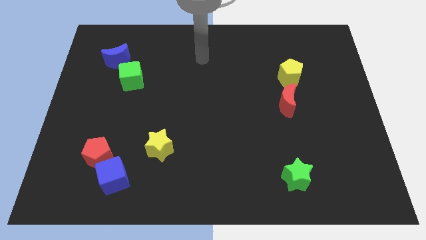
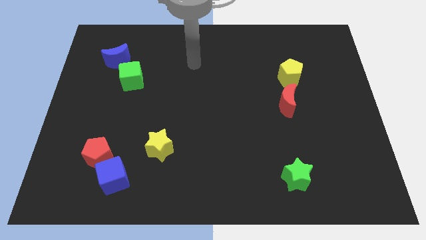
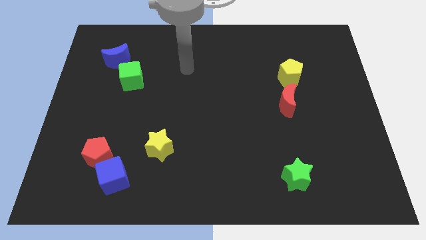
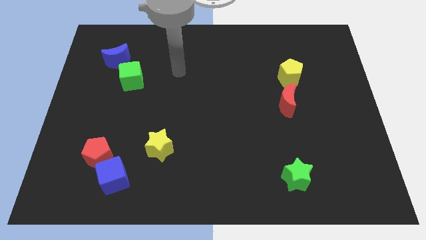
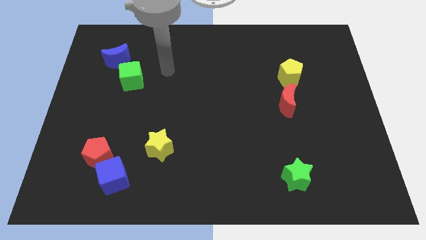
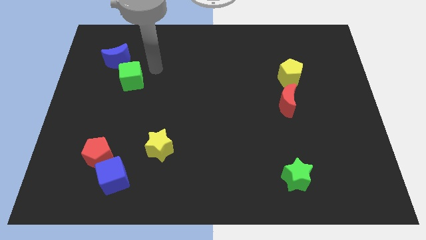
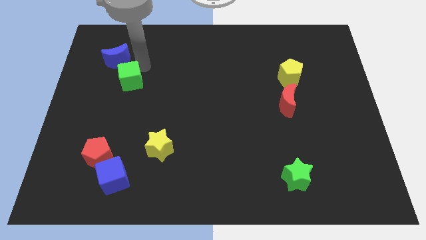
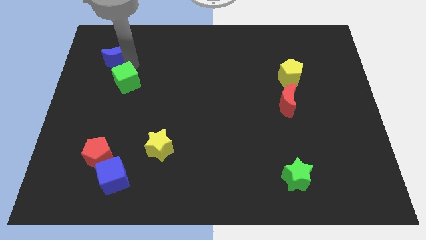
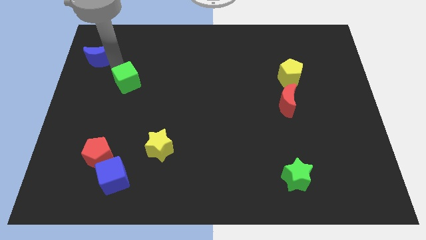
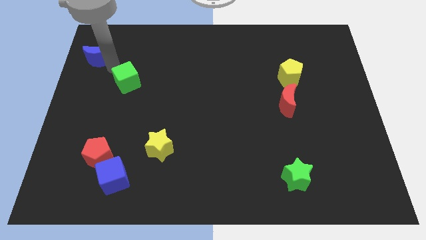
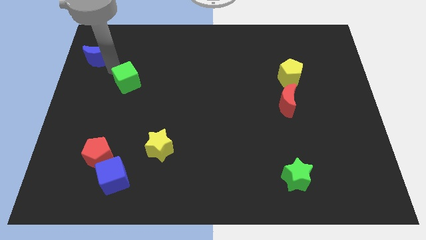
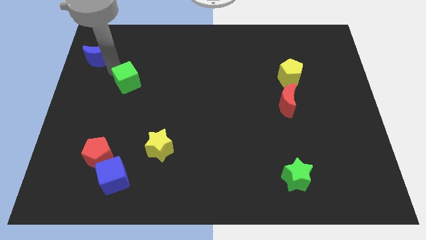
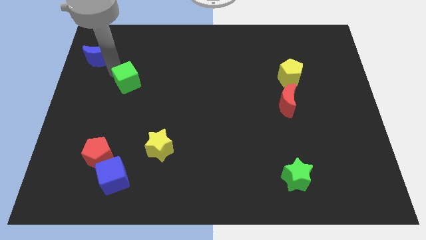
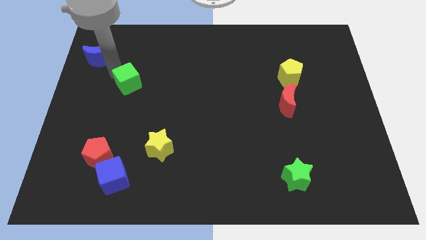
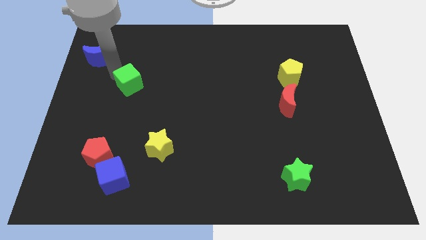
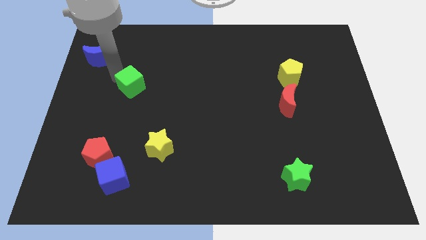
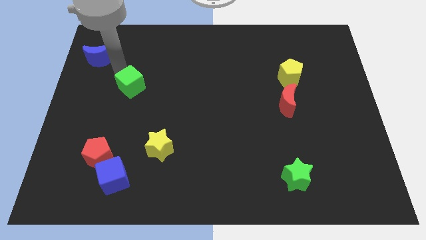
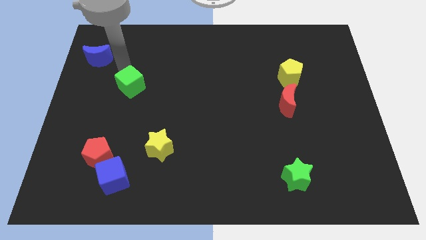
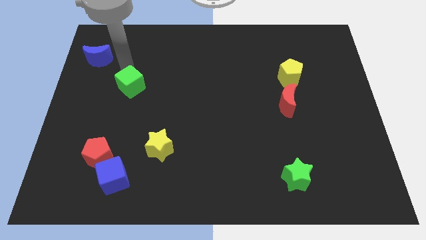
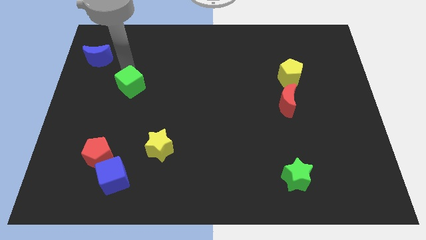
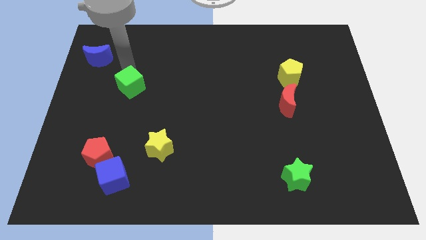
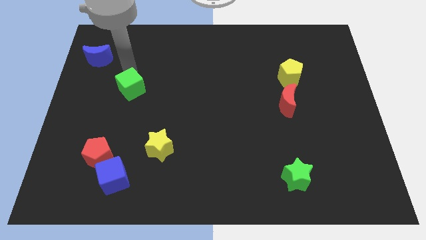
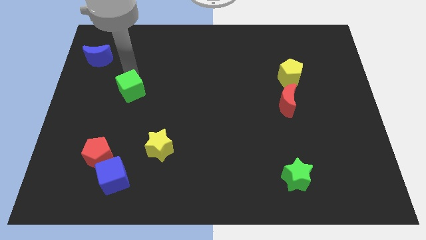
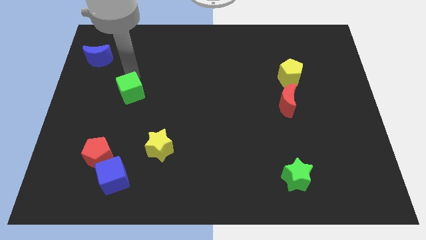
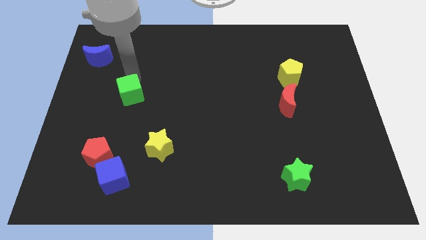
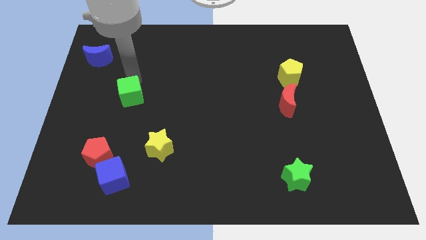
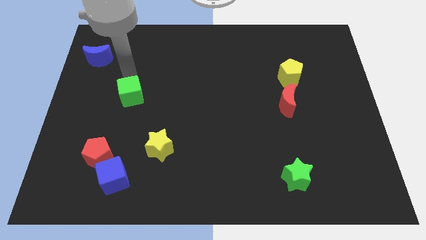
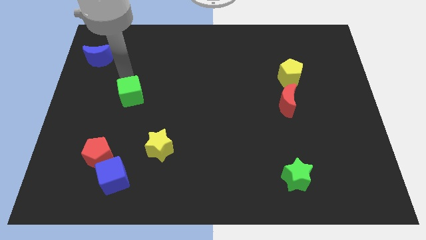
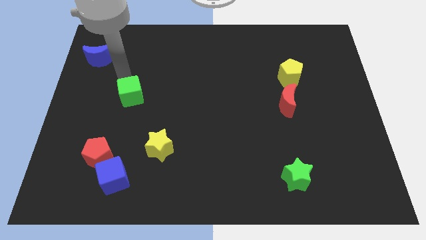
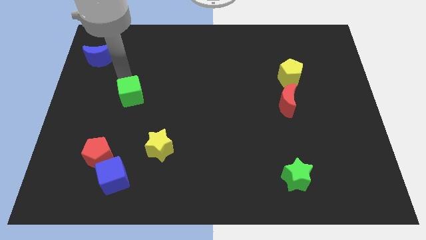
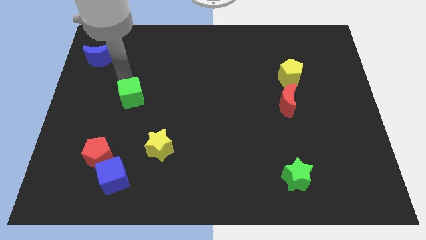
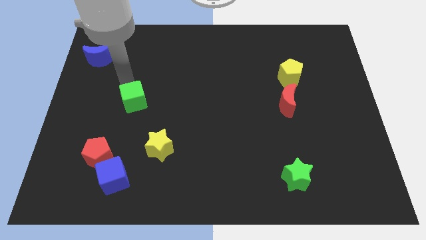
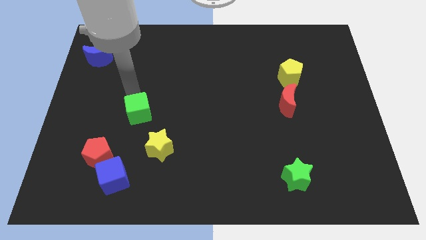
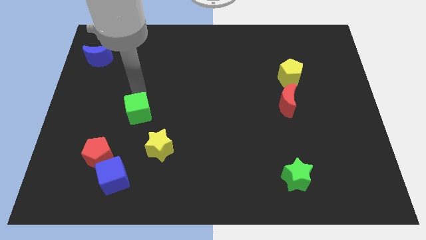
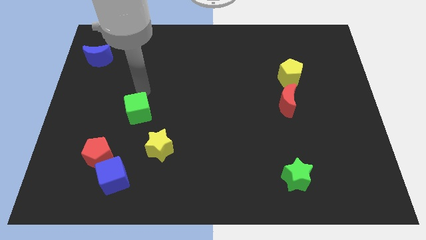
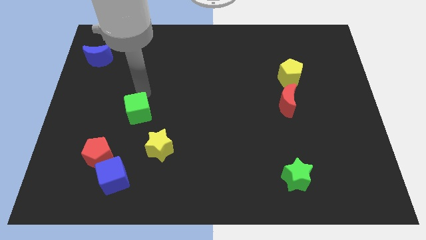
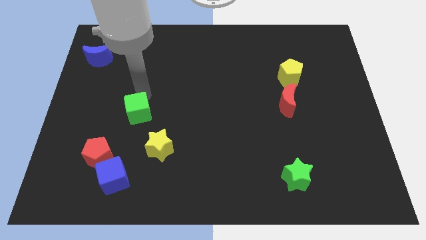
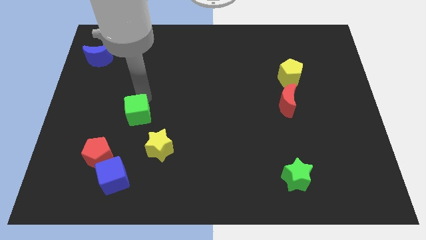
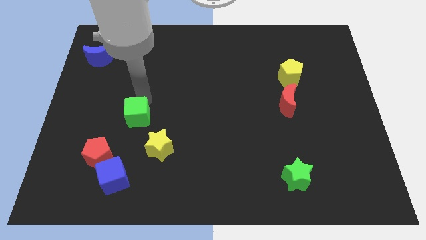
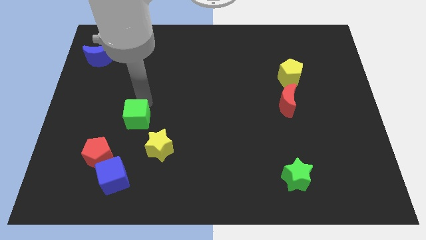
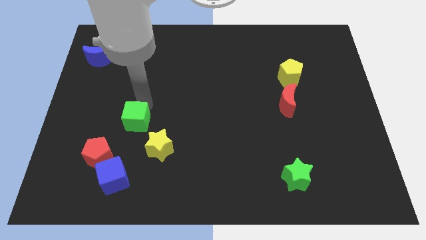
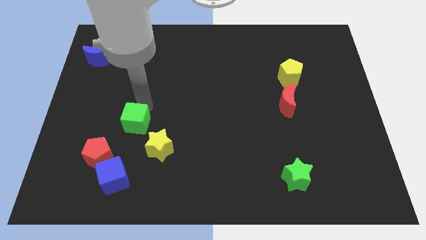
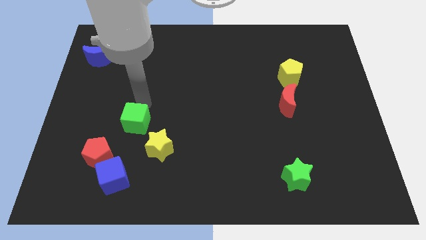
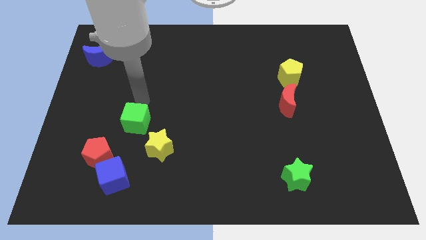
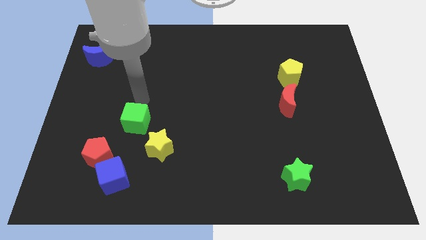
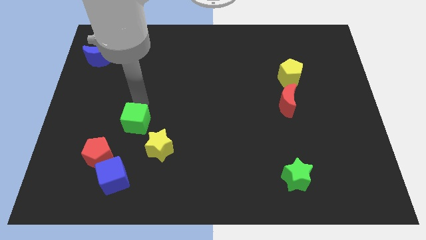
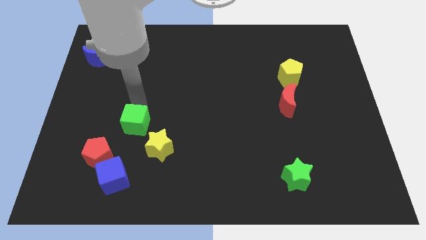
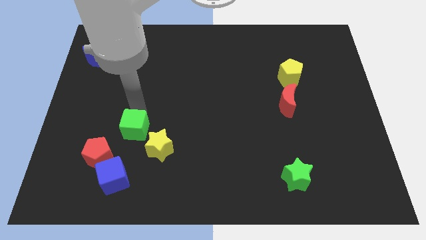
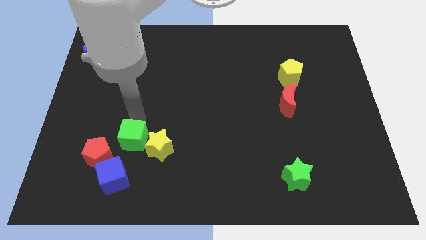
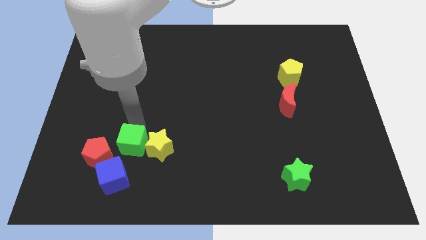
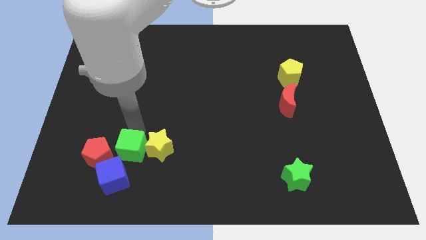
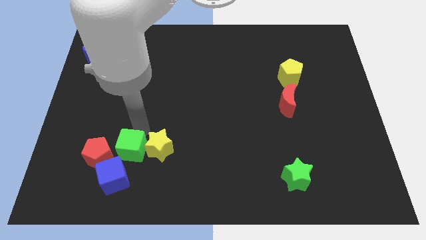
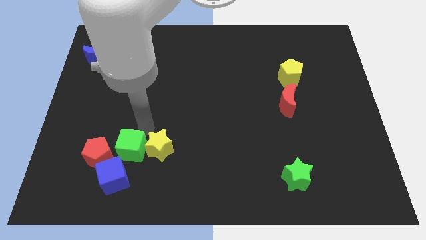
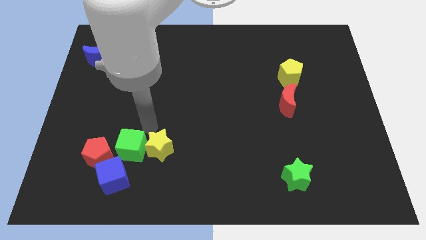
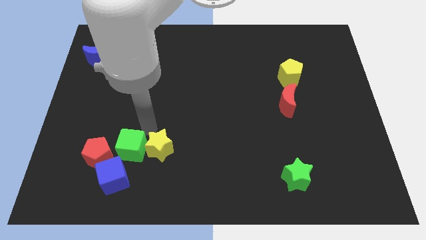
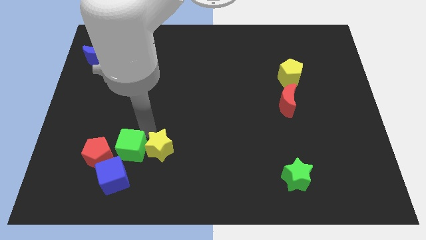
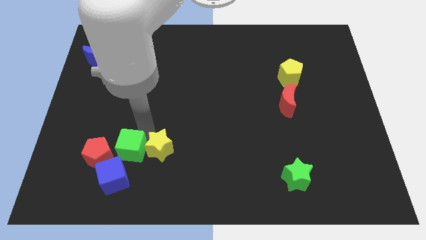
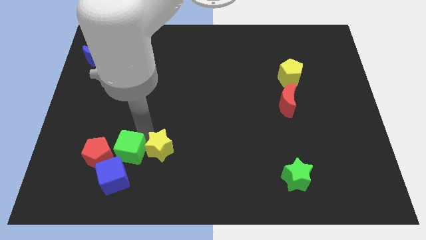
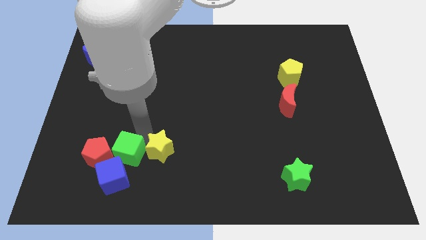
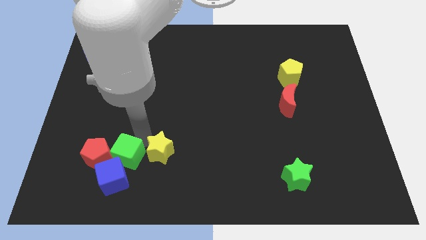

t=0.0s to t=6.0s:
slide the green cube close to the blue cube

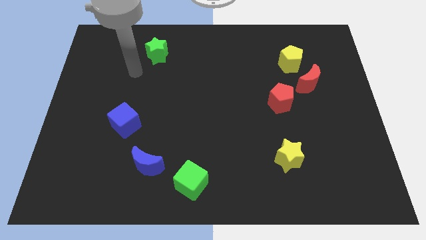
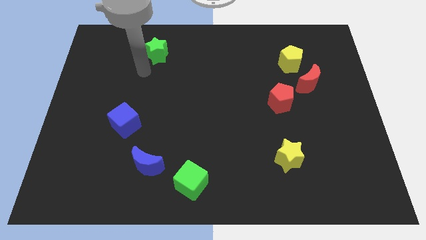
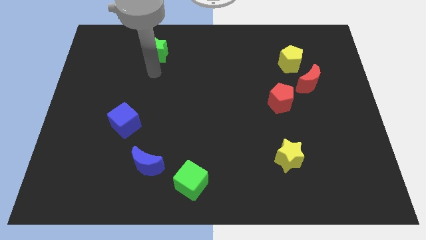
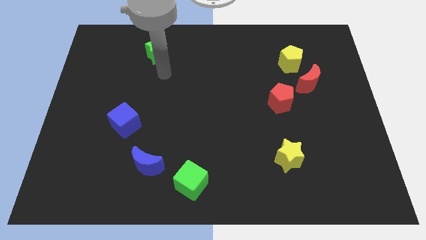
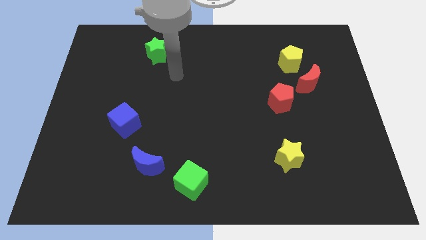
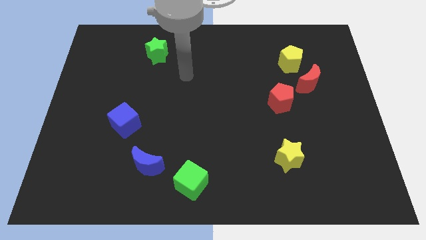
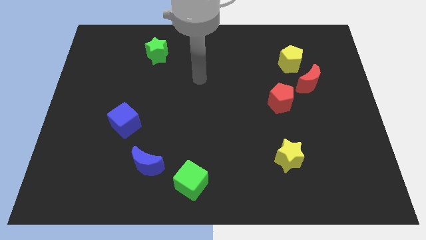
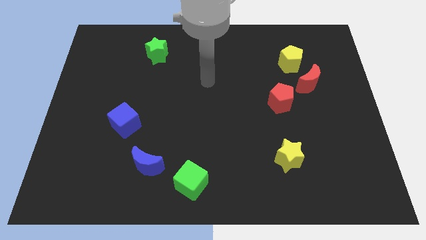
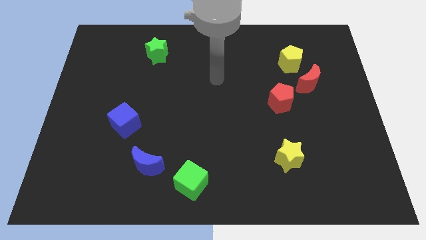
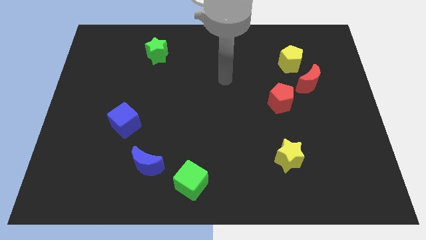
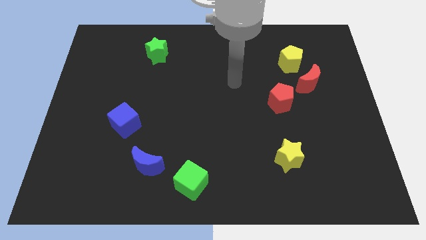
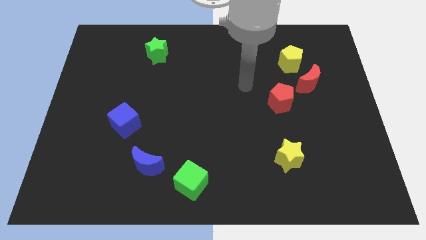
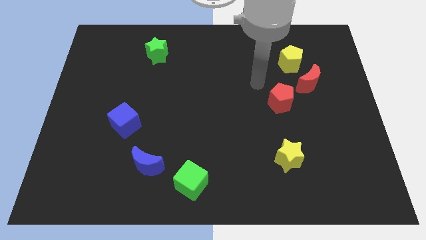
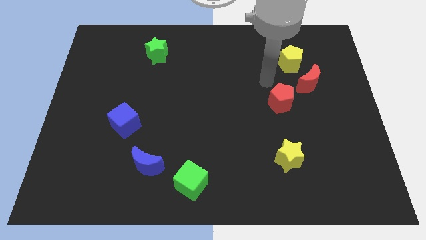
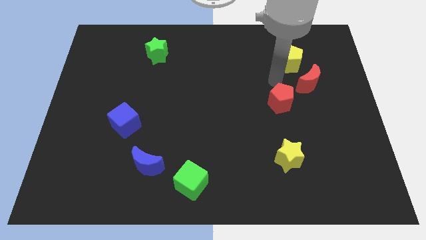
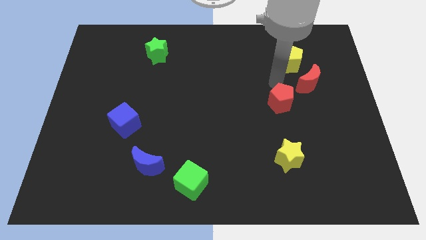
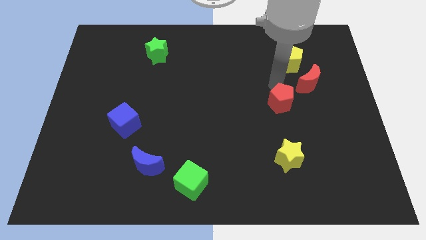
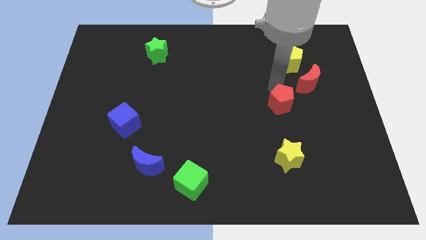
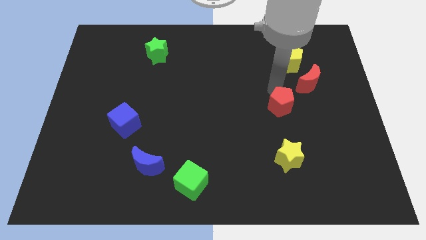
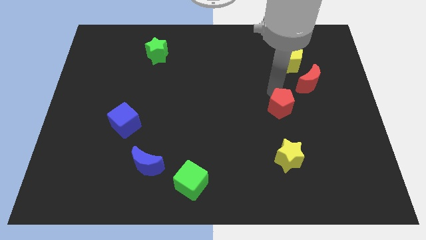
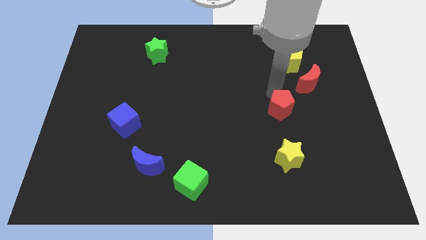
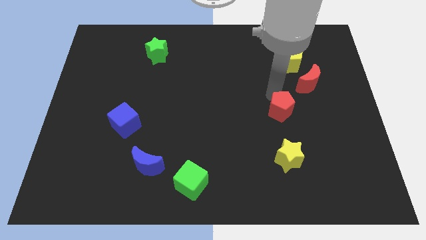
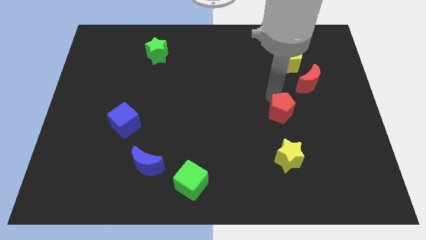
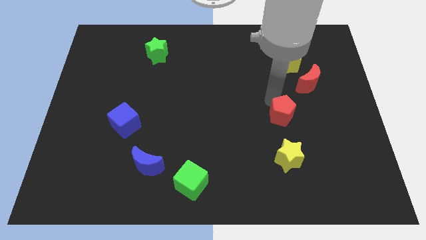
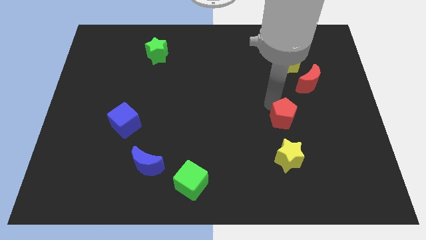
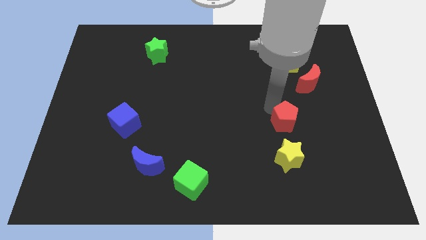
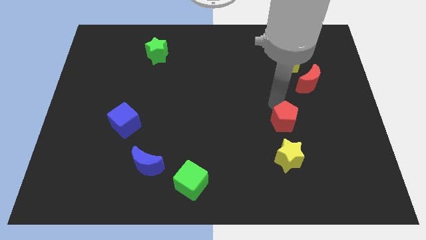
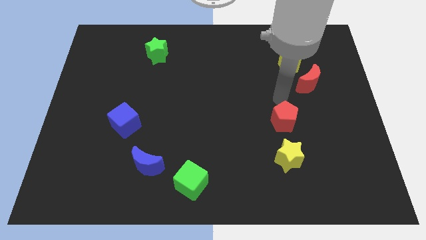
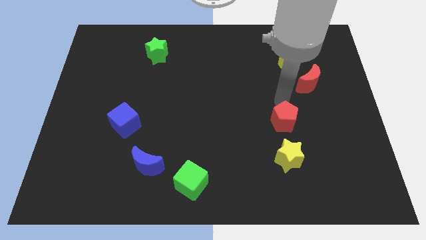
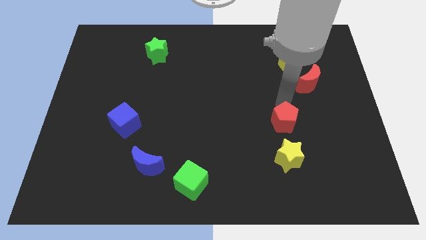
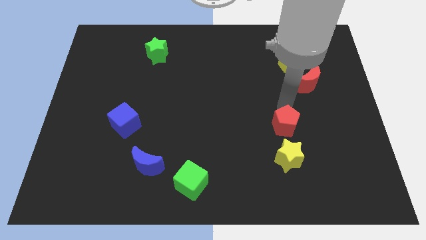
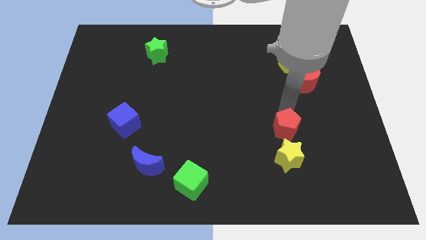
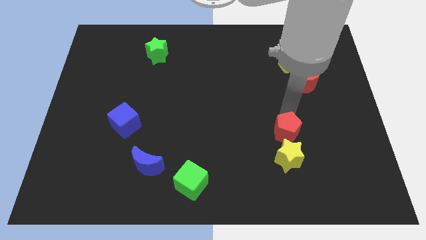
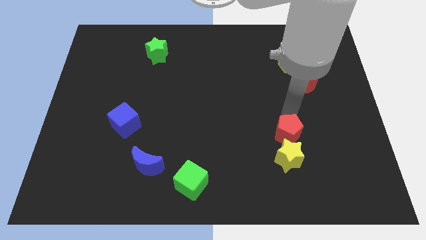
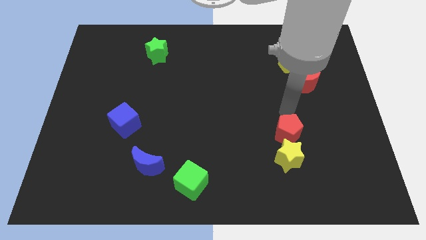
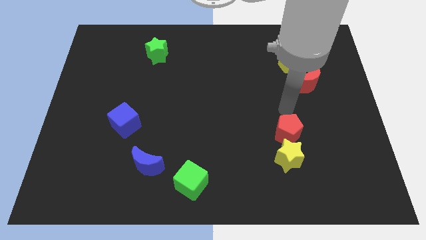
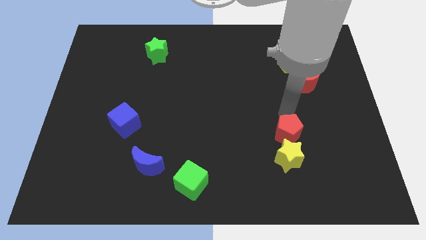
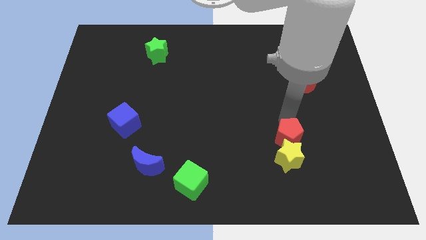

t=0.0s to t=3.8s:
slide the red pentagon next to the yellow star
